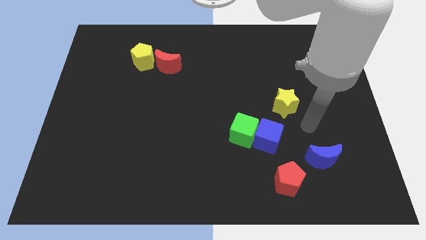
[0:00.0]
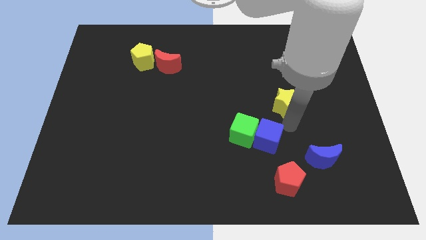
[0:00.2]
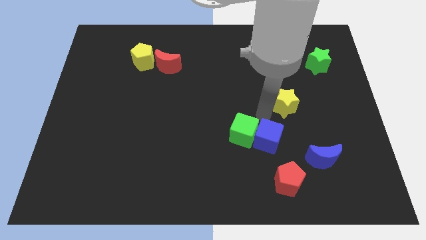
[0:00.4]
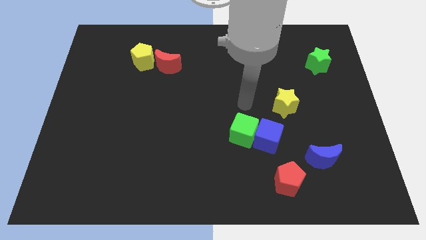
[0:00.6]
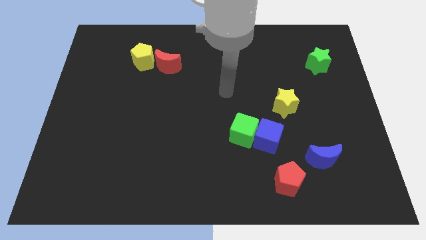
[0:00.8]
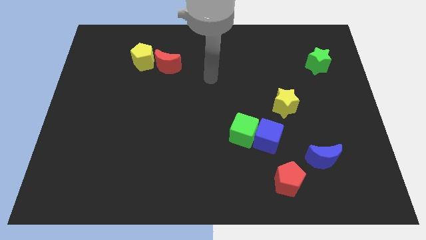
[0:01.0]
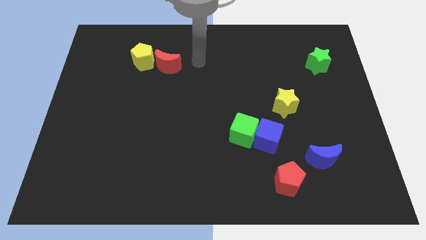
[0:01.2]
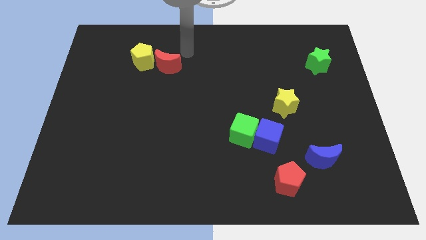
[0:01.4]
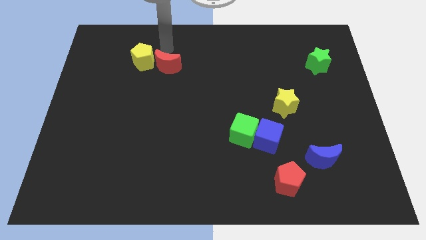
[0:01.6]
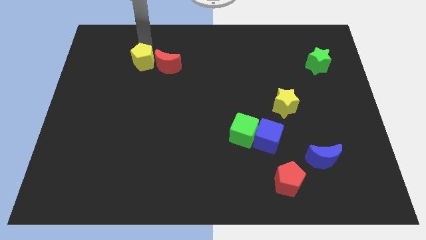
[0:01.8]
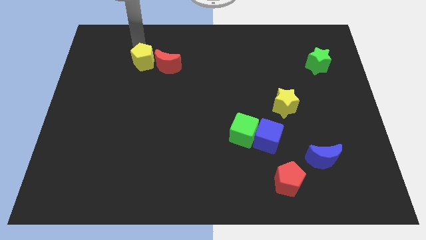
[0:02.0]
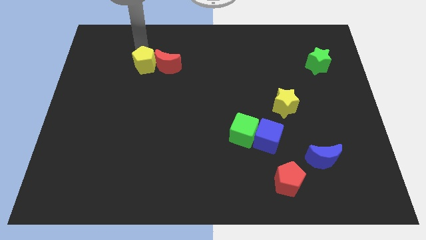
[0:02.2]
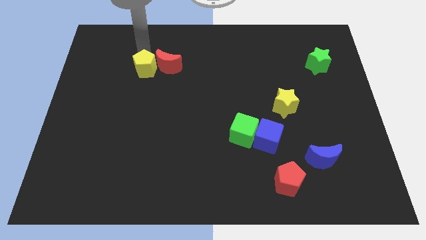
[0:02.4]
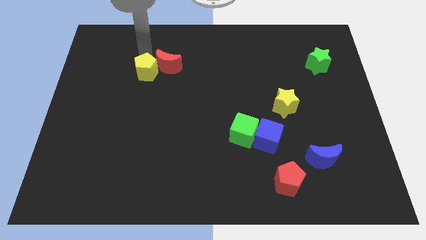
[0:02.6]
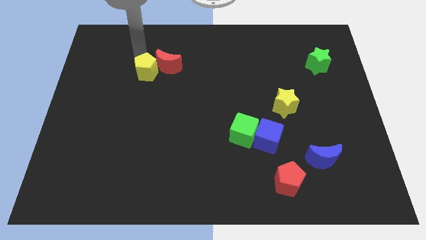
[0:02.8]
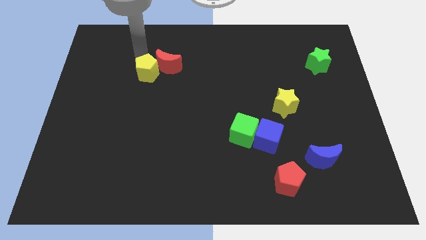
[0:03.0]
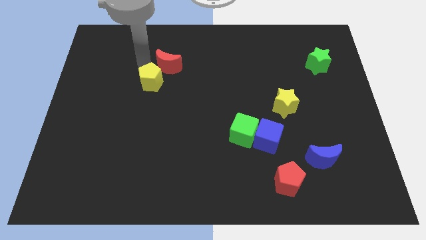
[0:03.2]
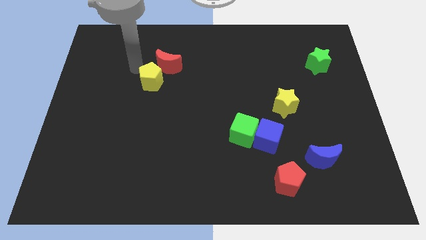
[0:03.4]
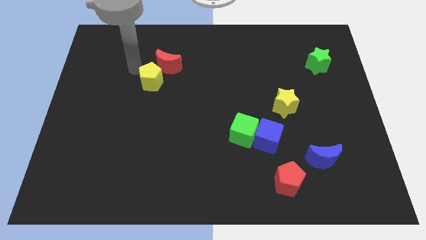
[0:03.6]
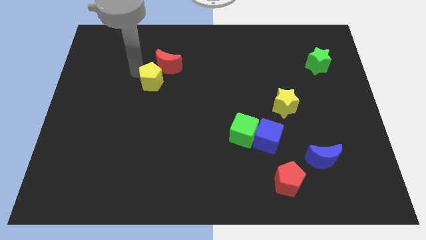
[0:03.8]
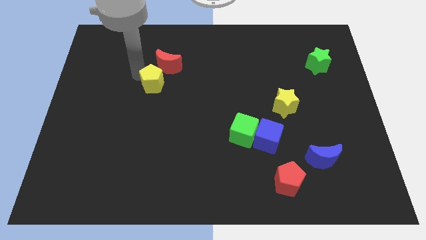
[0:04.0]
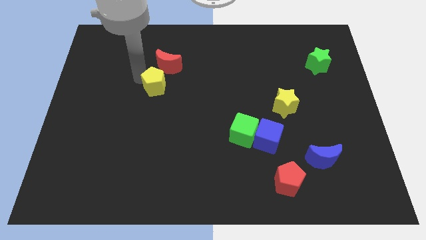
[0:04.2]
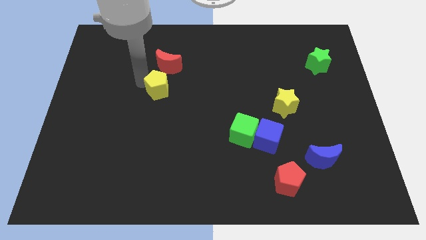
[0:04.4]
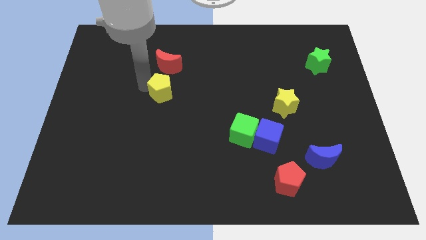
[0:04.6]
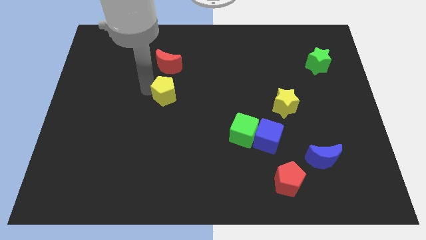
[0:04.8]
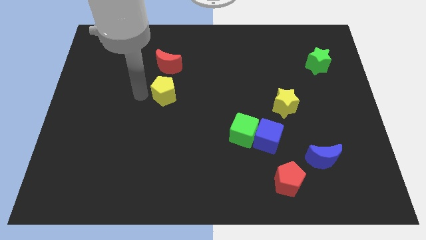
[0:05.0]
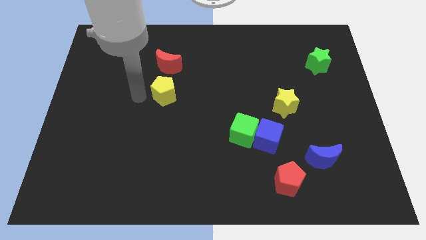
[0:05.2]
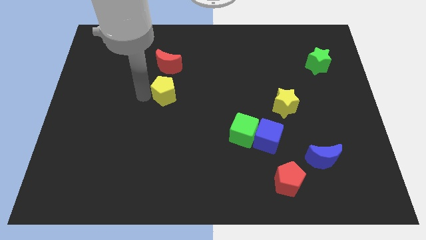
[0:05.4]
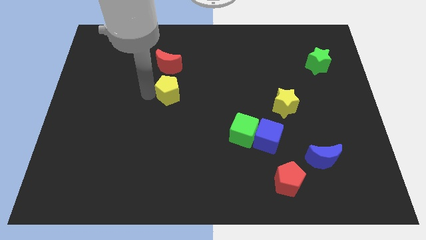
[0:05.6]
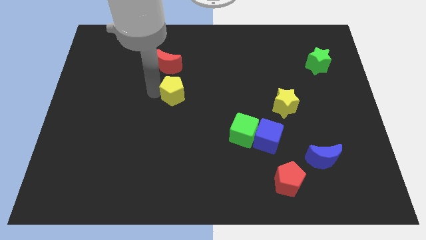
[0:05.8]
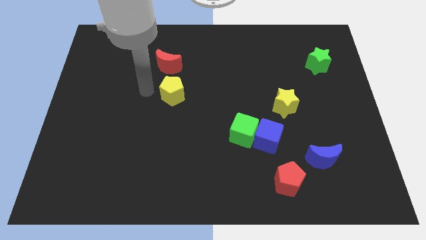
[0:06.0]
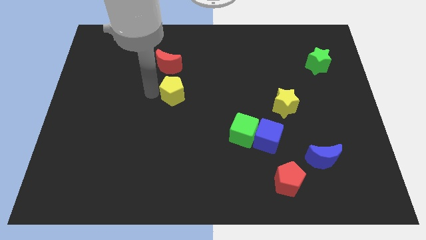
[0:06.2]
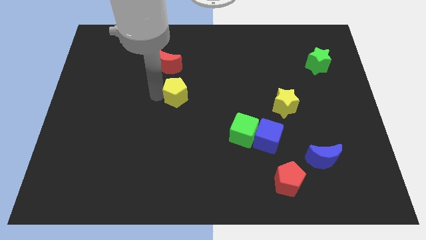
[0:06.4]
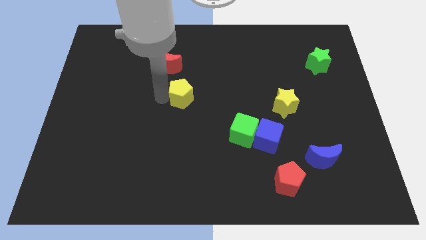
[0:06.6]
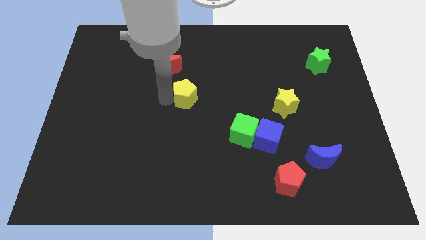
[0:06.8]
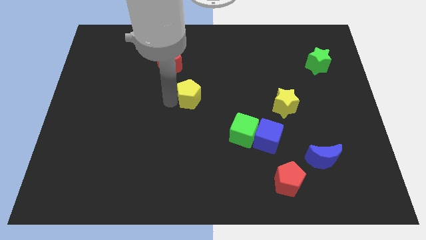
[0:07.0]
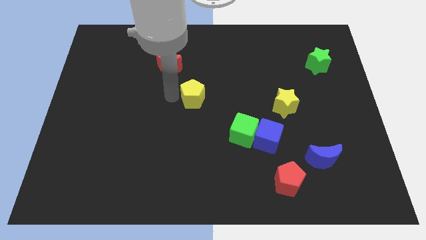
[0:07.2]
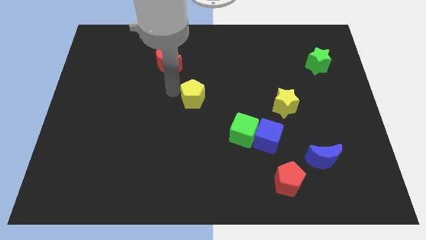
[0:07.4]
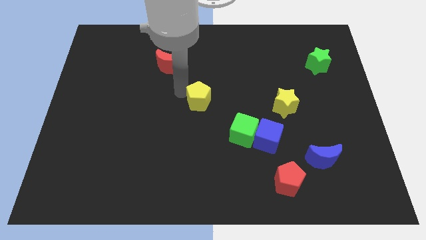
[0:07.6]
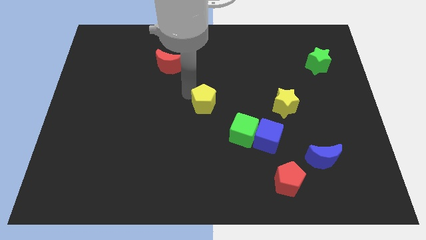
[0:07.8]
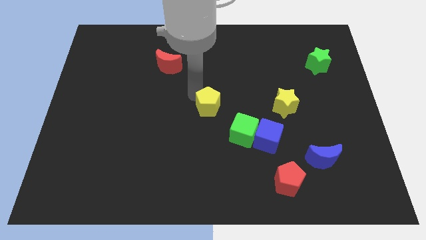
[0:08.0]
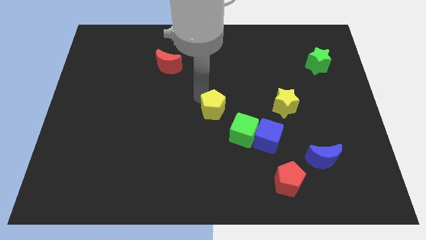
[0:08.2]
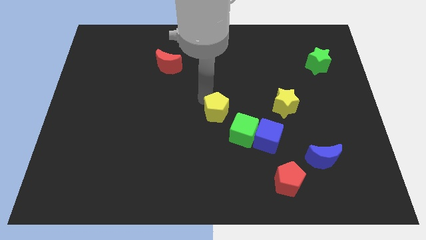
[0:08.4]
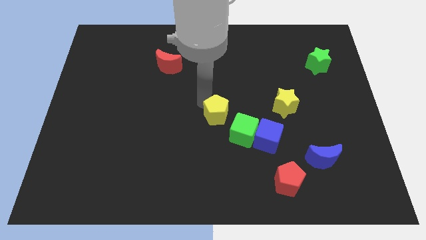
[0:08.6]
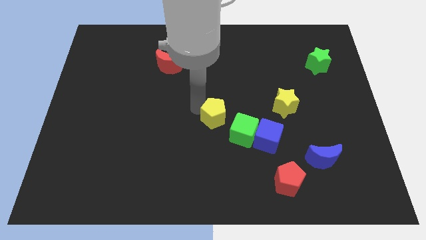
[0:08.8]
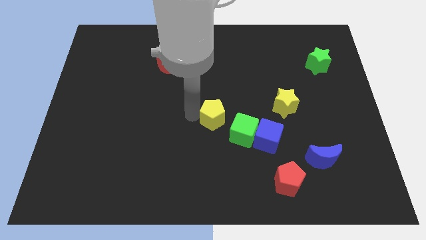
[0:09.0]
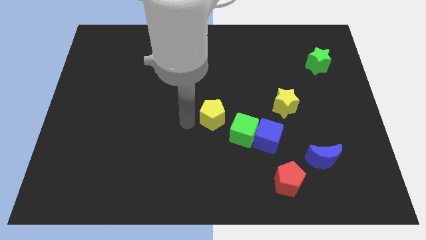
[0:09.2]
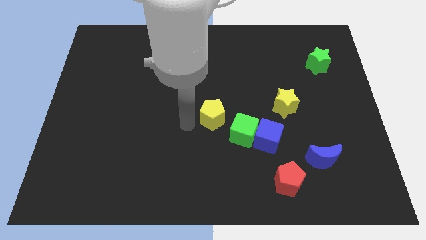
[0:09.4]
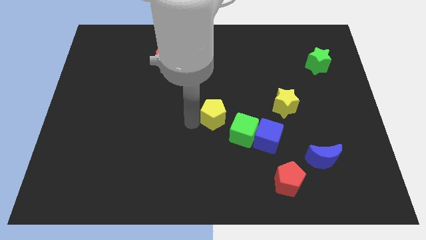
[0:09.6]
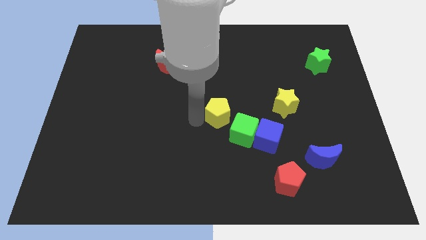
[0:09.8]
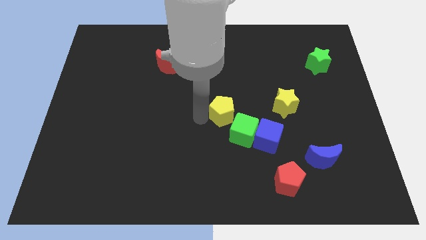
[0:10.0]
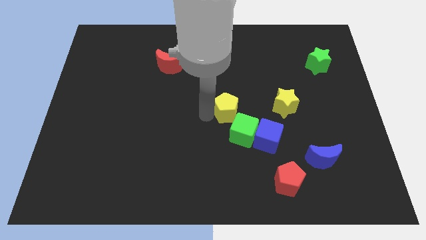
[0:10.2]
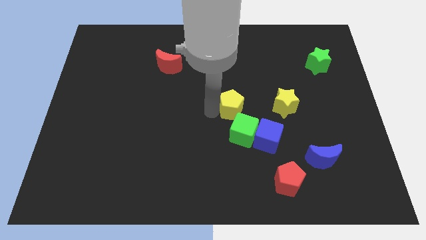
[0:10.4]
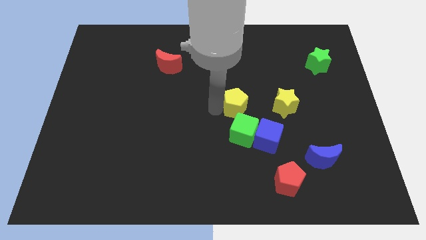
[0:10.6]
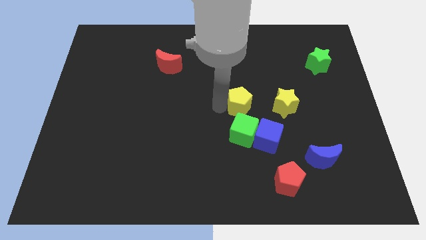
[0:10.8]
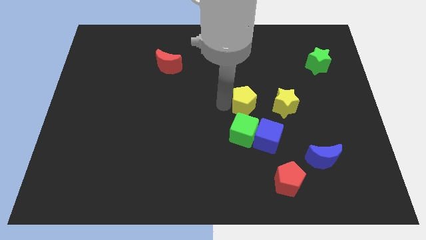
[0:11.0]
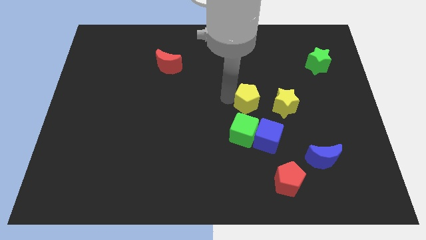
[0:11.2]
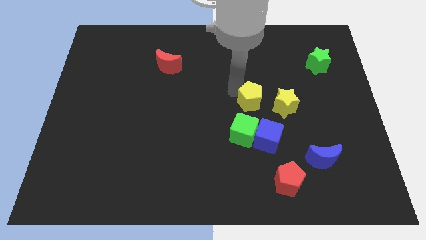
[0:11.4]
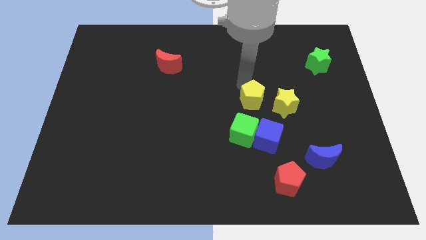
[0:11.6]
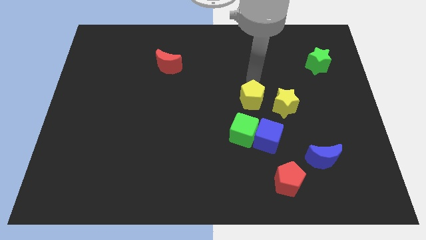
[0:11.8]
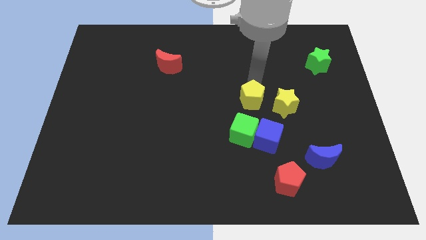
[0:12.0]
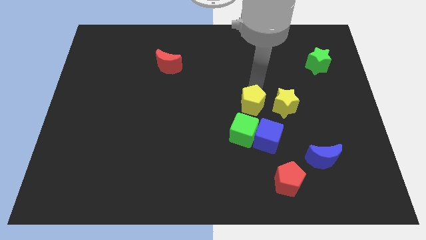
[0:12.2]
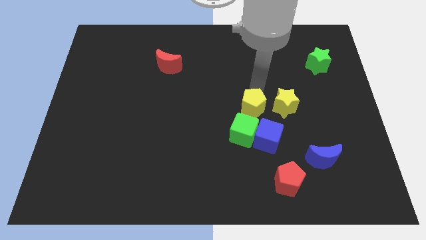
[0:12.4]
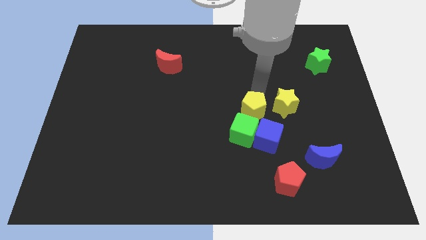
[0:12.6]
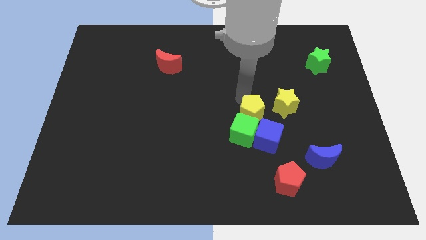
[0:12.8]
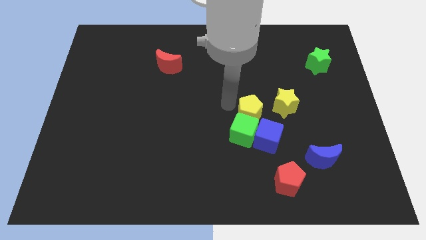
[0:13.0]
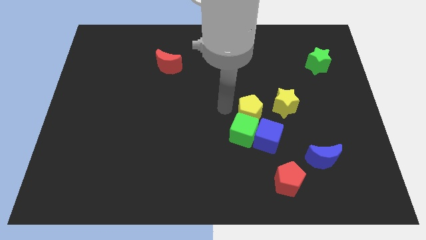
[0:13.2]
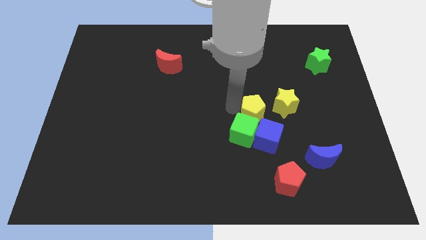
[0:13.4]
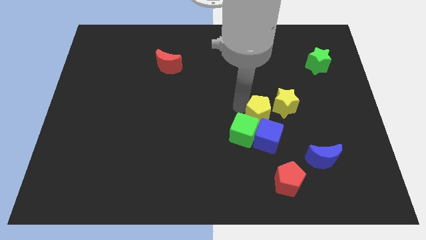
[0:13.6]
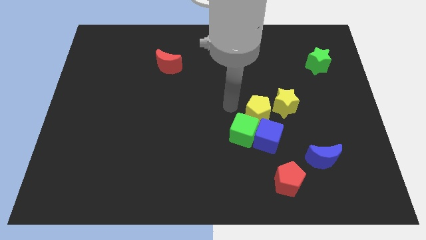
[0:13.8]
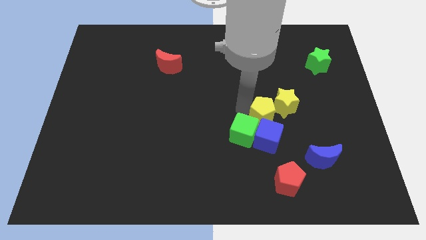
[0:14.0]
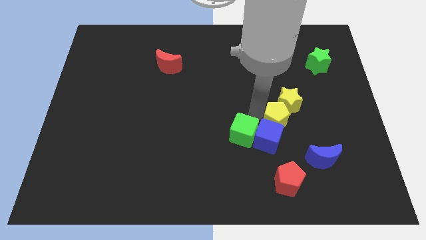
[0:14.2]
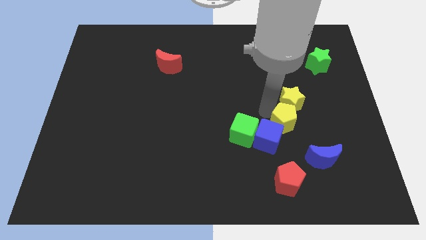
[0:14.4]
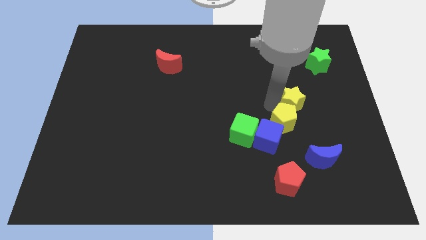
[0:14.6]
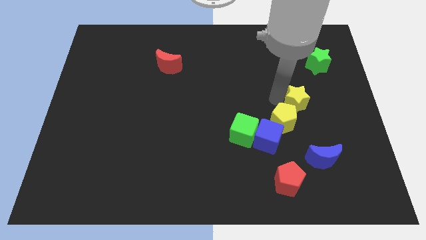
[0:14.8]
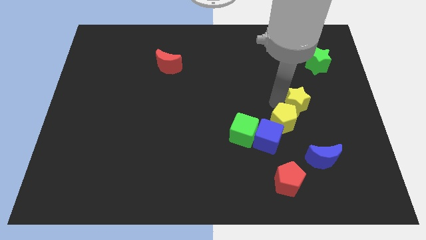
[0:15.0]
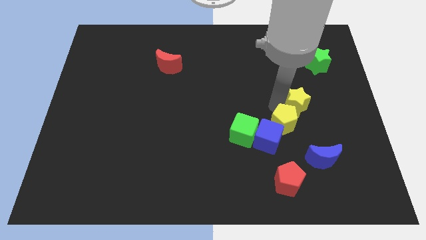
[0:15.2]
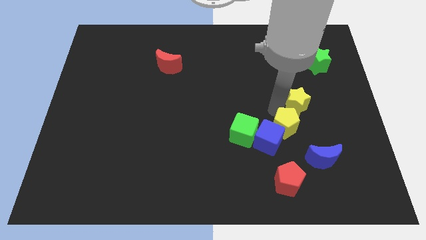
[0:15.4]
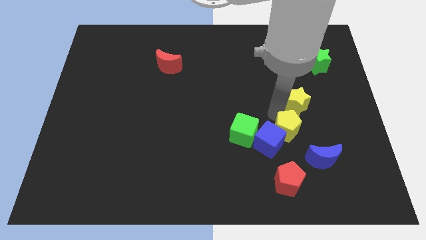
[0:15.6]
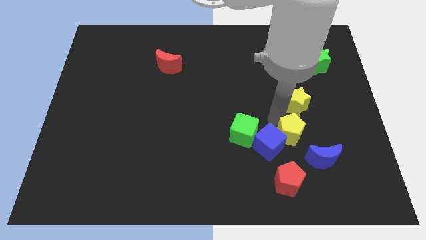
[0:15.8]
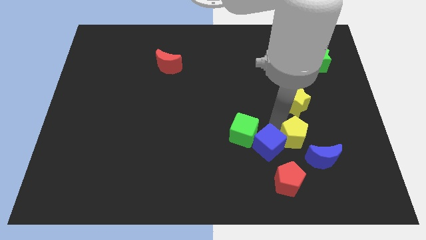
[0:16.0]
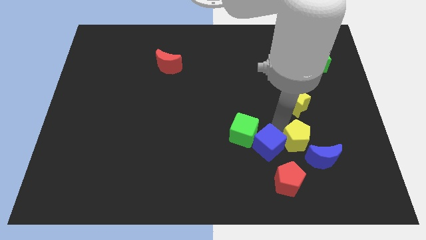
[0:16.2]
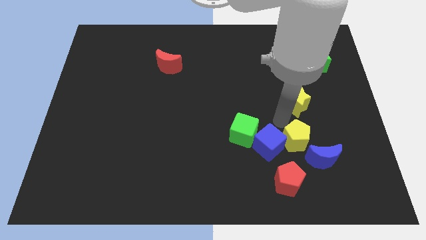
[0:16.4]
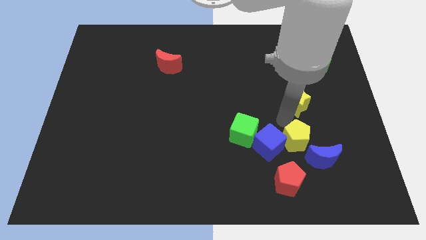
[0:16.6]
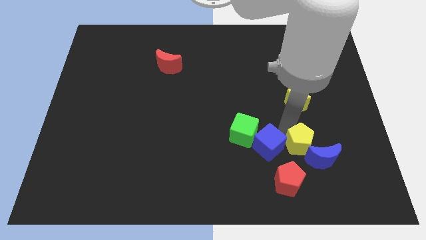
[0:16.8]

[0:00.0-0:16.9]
slide the yellow pentagon towards the blue moon

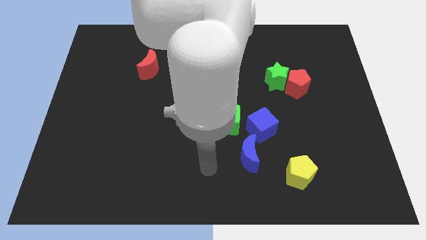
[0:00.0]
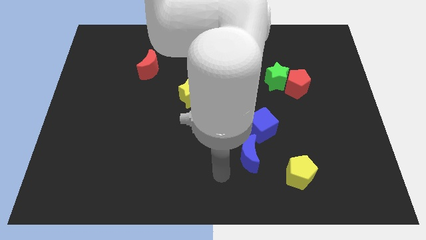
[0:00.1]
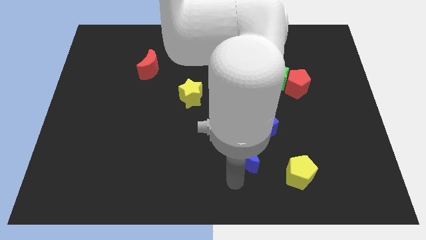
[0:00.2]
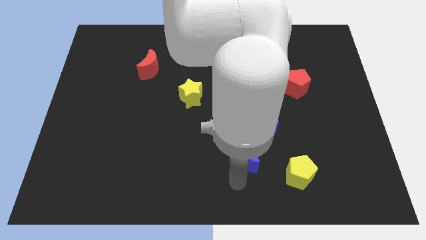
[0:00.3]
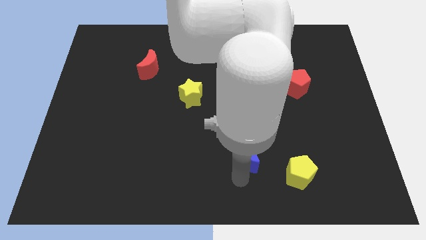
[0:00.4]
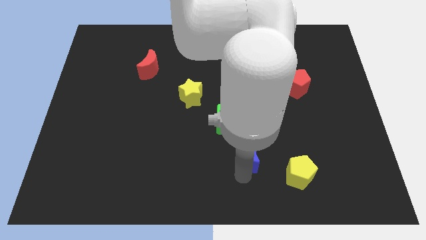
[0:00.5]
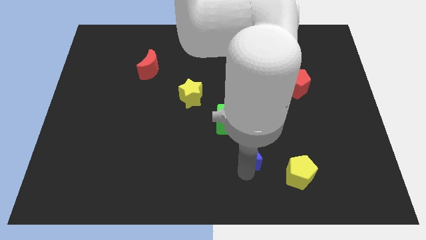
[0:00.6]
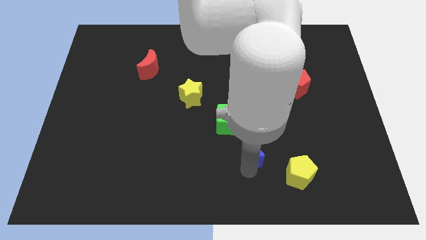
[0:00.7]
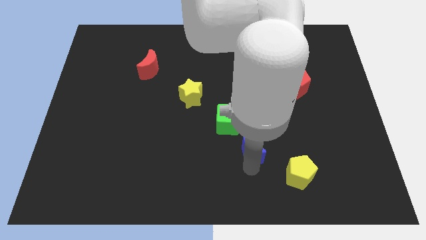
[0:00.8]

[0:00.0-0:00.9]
put the blue moon to the blue cube
